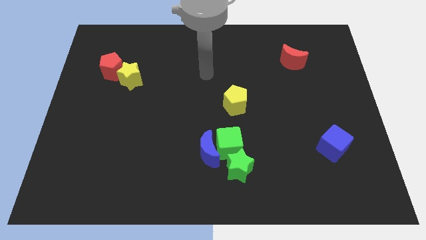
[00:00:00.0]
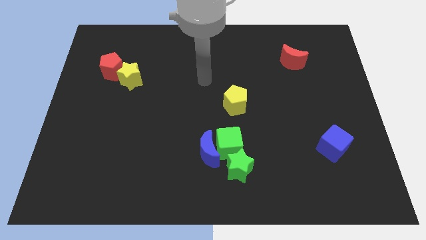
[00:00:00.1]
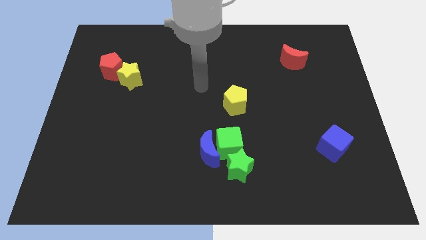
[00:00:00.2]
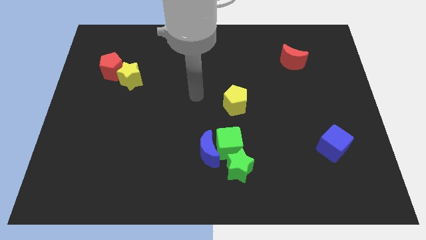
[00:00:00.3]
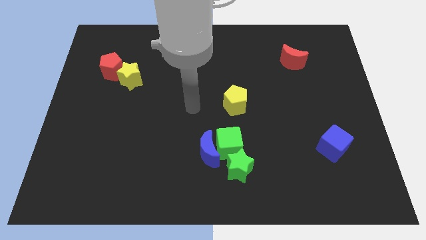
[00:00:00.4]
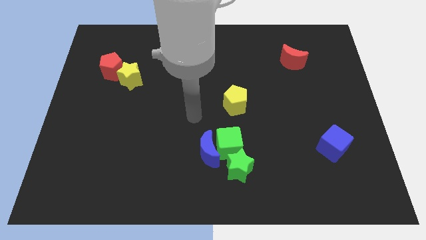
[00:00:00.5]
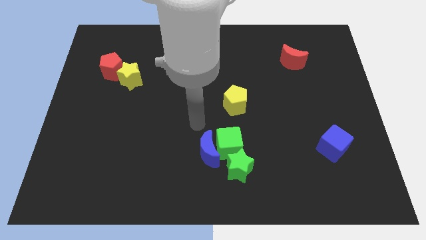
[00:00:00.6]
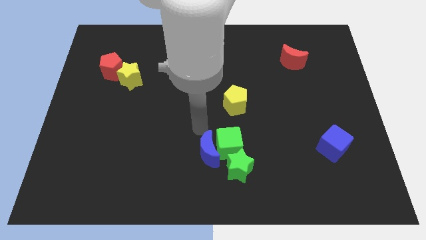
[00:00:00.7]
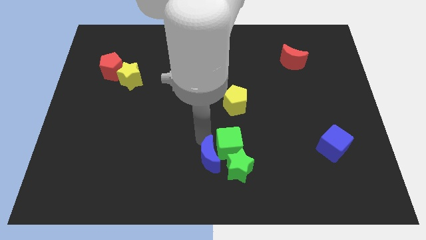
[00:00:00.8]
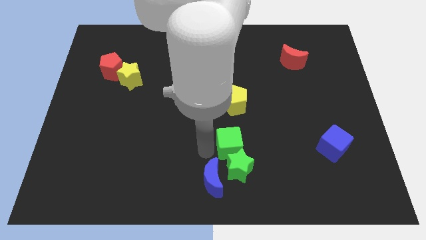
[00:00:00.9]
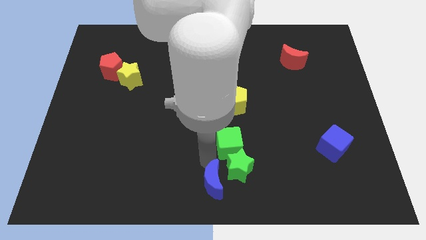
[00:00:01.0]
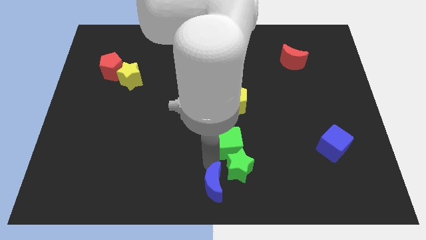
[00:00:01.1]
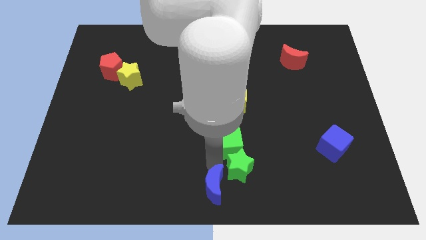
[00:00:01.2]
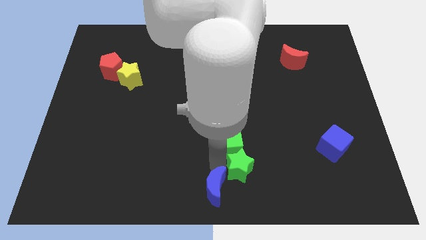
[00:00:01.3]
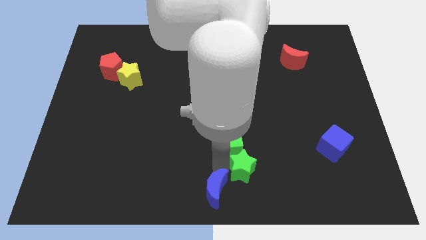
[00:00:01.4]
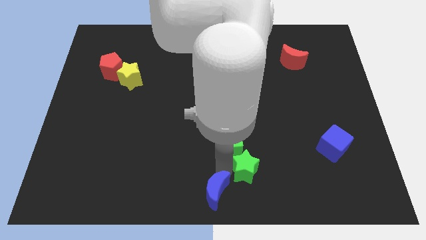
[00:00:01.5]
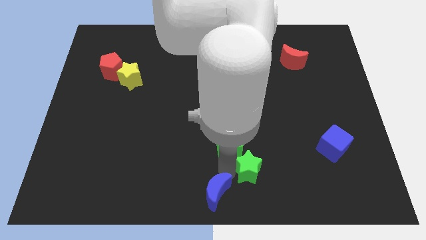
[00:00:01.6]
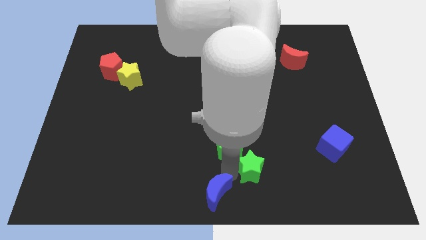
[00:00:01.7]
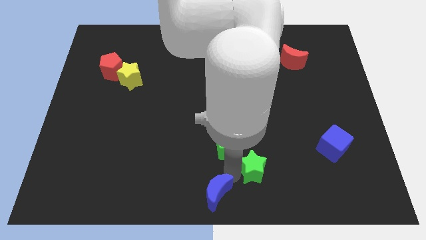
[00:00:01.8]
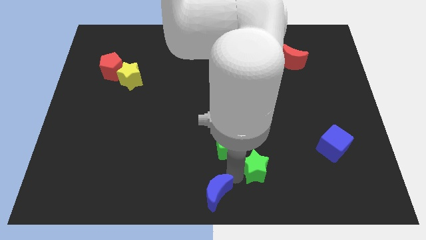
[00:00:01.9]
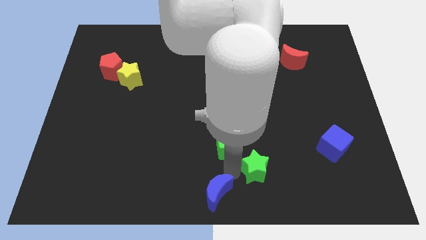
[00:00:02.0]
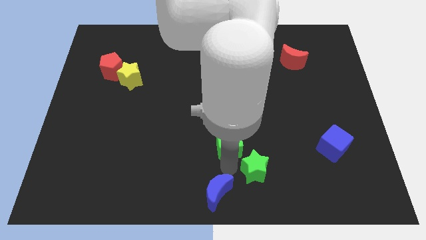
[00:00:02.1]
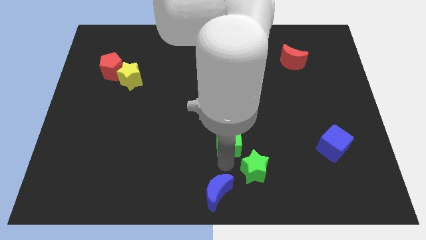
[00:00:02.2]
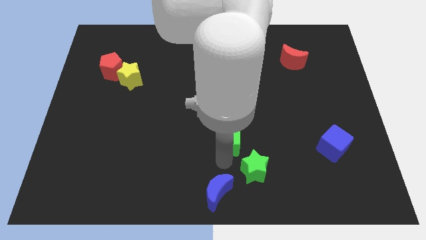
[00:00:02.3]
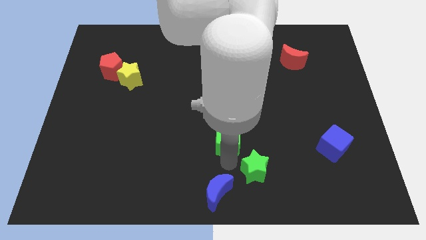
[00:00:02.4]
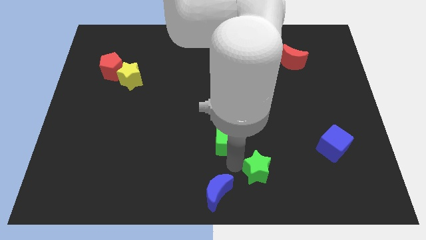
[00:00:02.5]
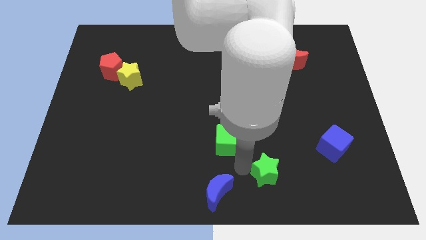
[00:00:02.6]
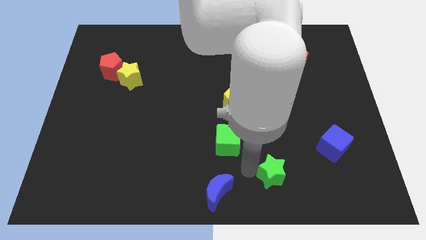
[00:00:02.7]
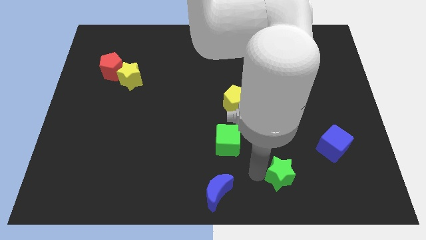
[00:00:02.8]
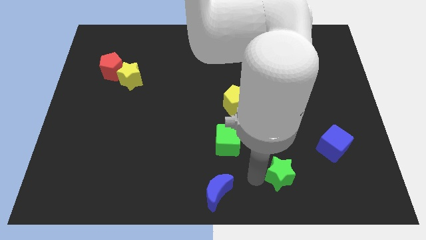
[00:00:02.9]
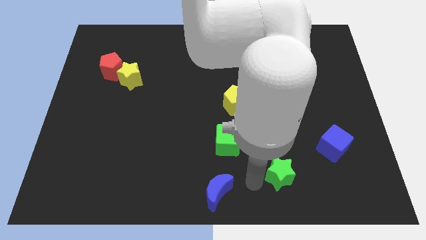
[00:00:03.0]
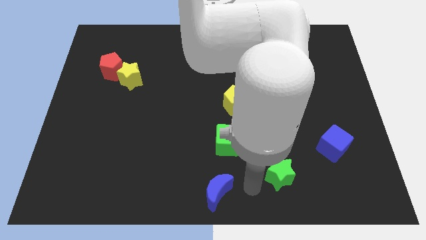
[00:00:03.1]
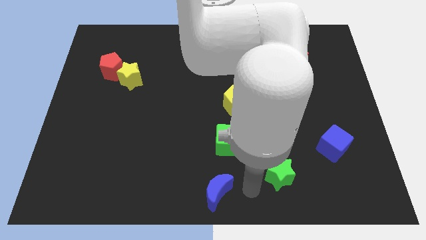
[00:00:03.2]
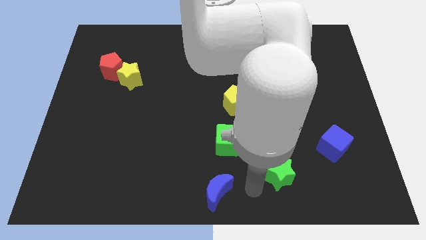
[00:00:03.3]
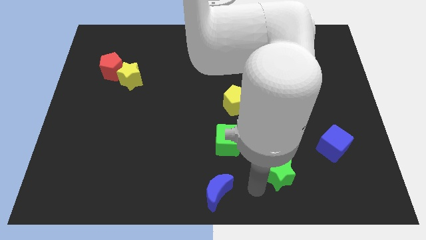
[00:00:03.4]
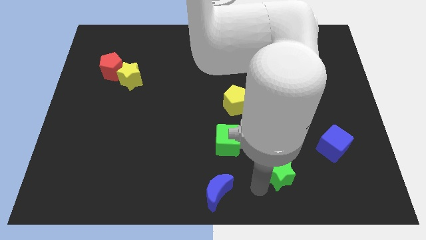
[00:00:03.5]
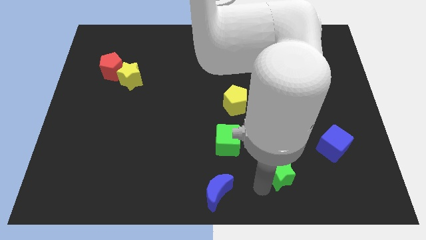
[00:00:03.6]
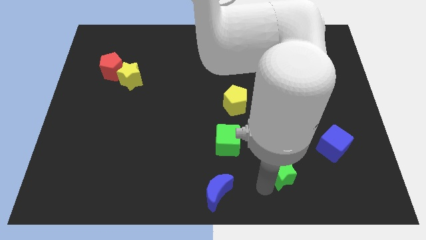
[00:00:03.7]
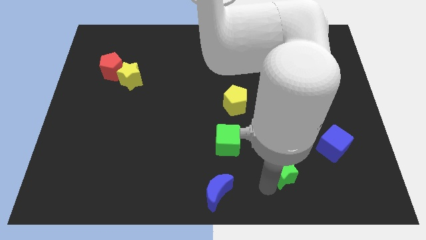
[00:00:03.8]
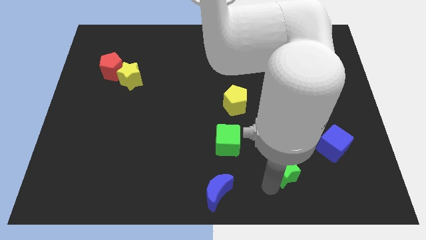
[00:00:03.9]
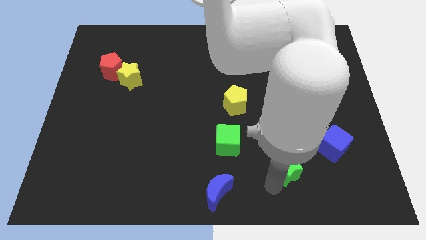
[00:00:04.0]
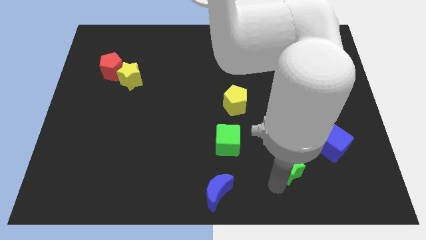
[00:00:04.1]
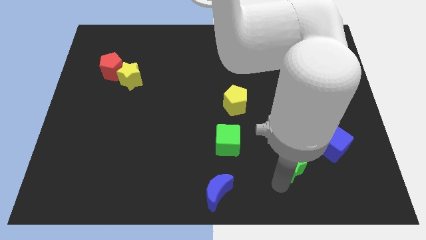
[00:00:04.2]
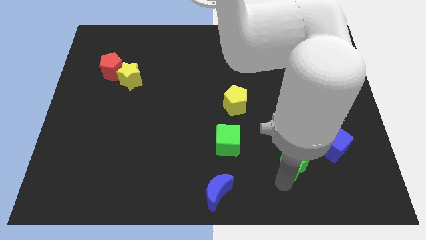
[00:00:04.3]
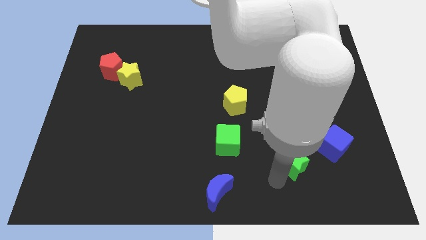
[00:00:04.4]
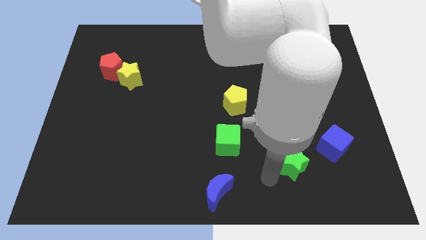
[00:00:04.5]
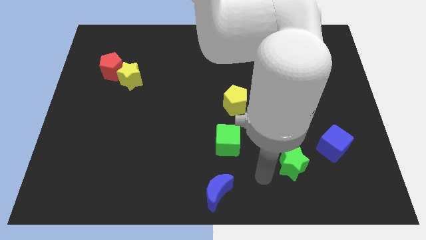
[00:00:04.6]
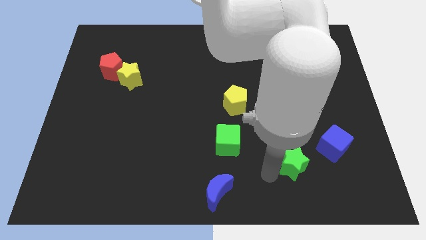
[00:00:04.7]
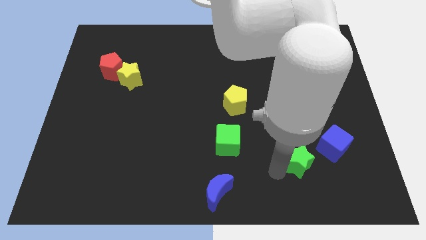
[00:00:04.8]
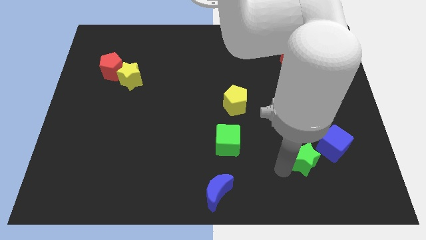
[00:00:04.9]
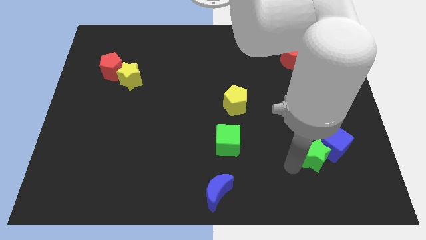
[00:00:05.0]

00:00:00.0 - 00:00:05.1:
move the green star towards the blue cube

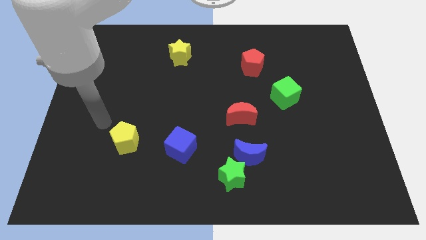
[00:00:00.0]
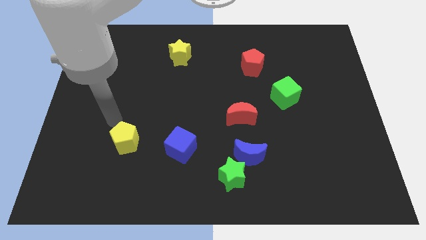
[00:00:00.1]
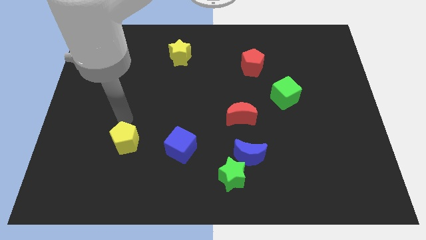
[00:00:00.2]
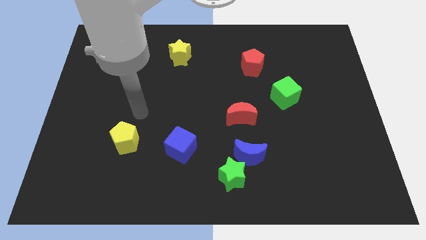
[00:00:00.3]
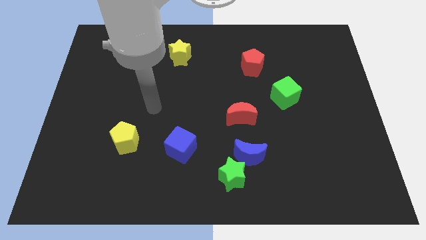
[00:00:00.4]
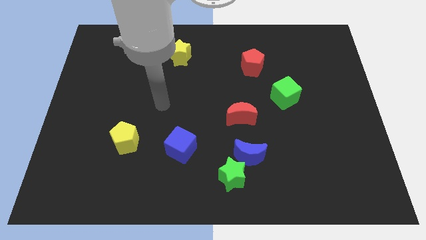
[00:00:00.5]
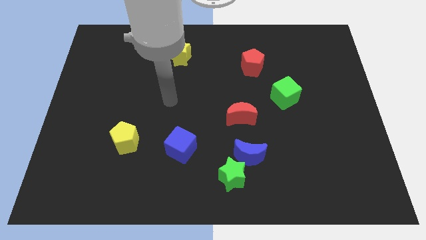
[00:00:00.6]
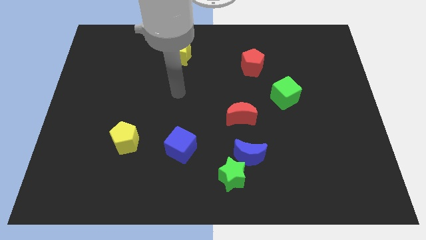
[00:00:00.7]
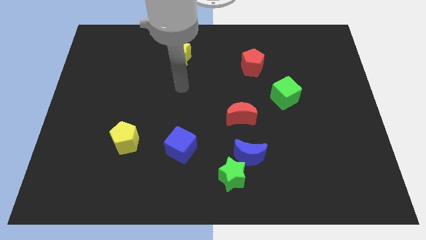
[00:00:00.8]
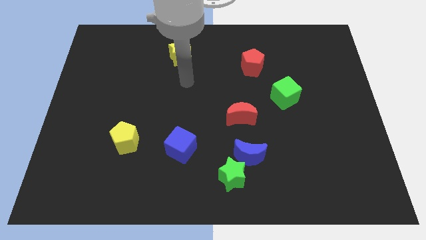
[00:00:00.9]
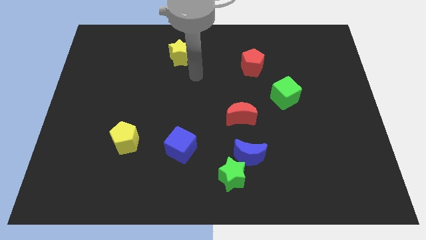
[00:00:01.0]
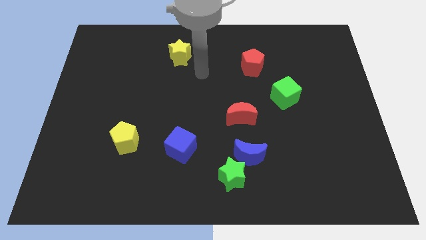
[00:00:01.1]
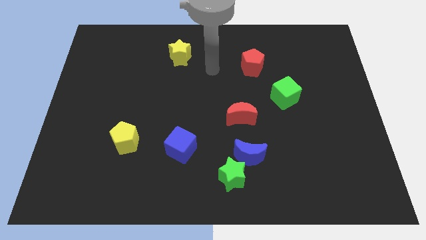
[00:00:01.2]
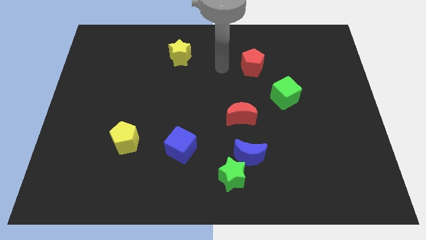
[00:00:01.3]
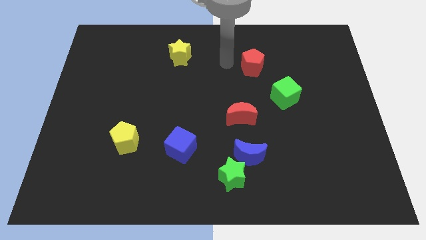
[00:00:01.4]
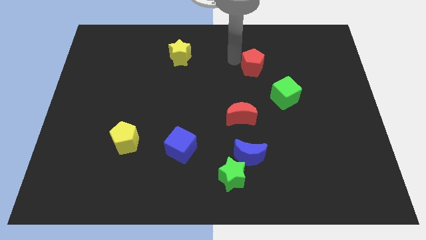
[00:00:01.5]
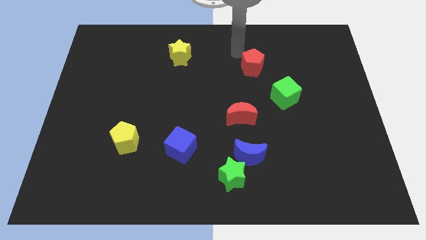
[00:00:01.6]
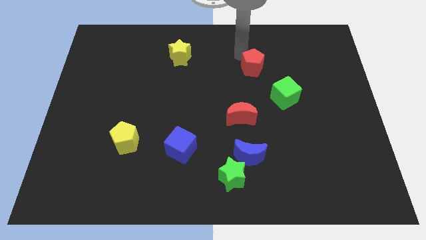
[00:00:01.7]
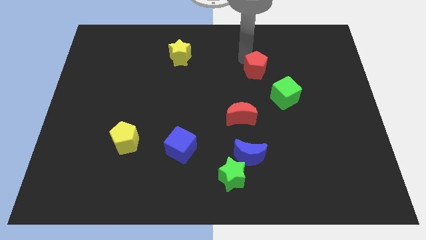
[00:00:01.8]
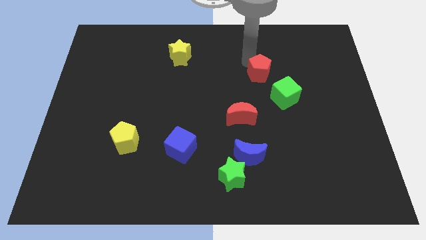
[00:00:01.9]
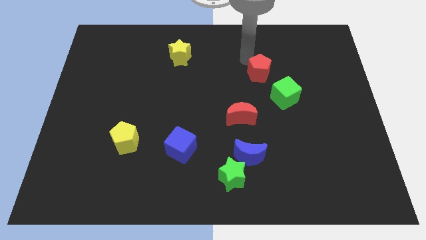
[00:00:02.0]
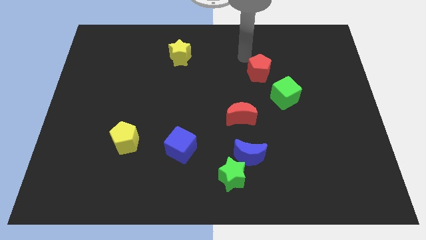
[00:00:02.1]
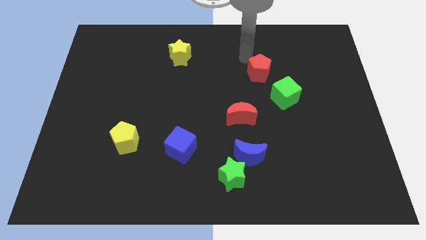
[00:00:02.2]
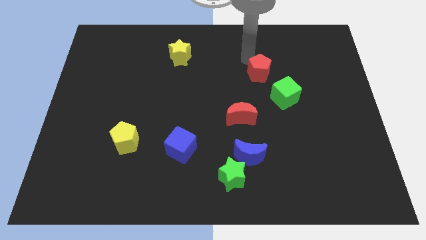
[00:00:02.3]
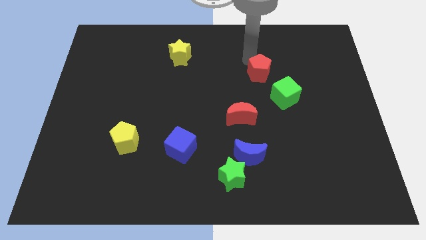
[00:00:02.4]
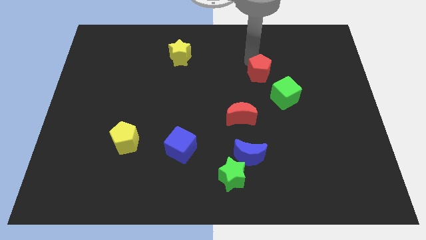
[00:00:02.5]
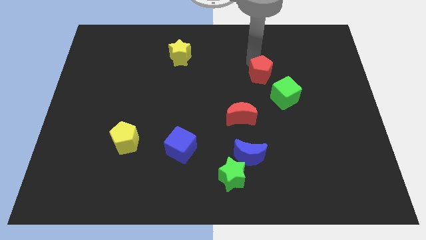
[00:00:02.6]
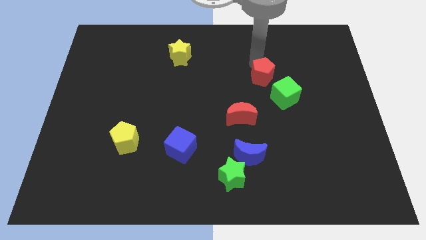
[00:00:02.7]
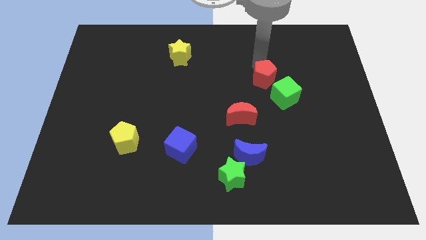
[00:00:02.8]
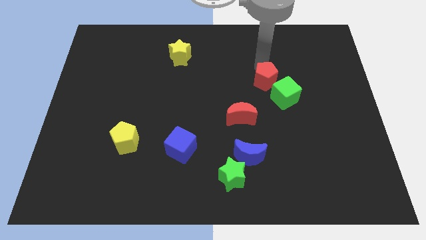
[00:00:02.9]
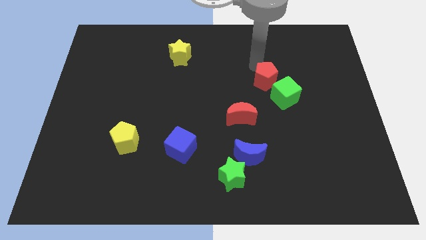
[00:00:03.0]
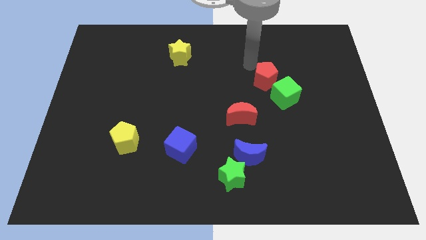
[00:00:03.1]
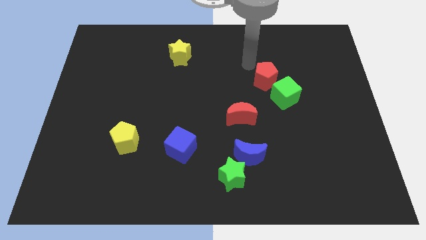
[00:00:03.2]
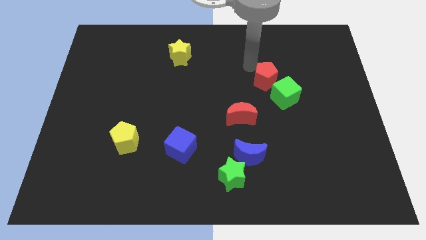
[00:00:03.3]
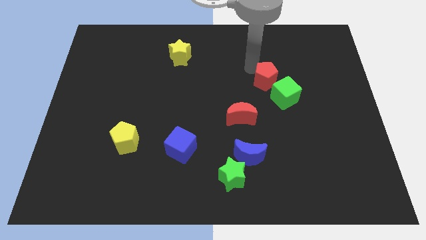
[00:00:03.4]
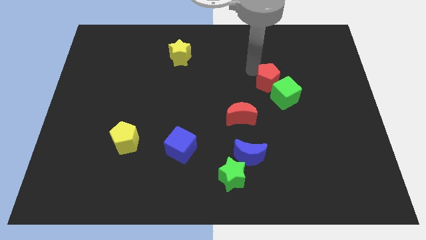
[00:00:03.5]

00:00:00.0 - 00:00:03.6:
move the red pentagon towards the green cube
